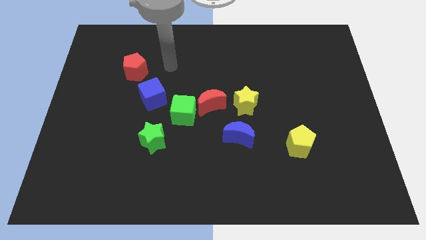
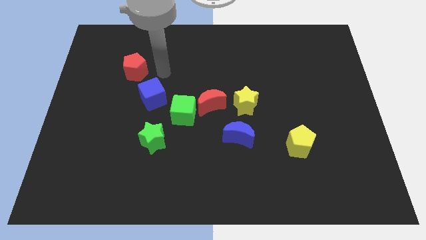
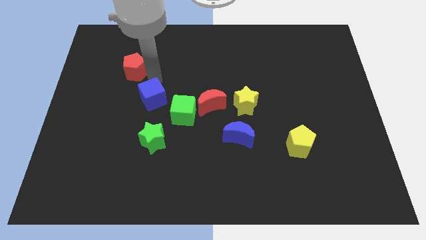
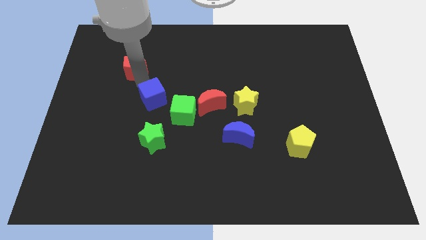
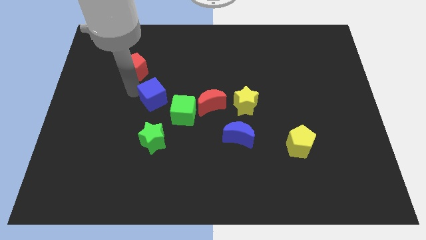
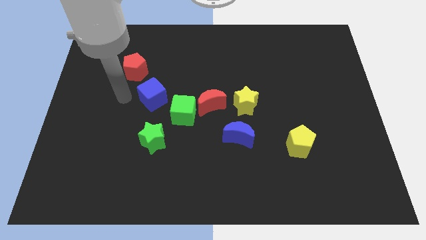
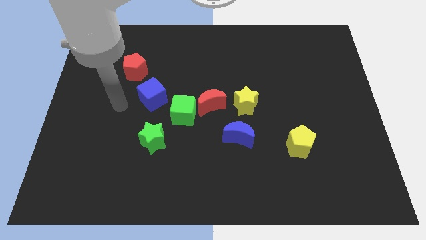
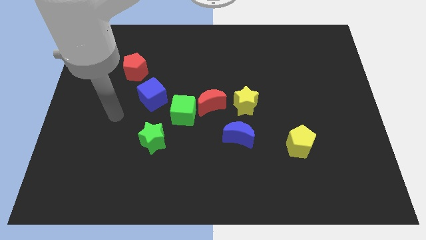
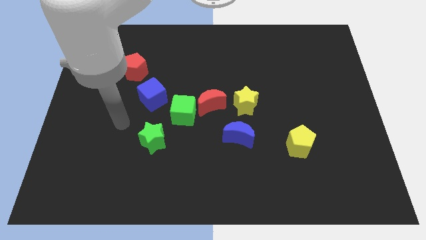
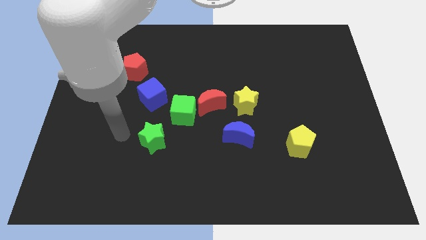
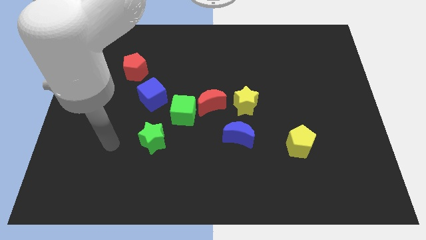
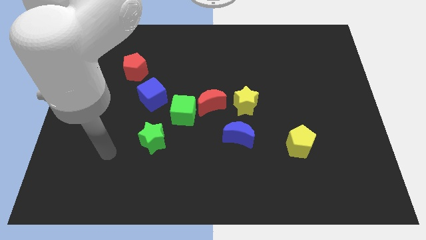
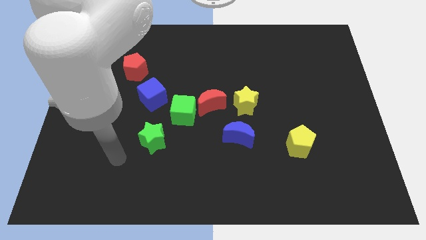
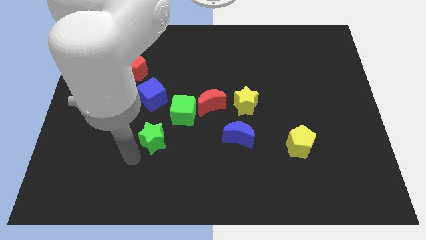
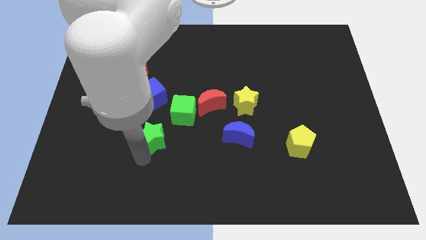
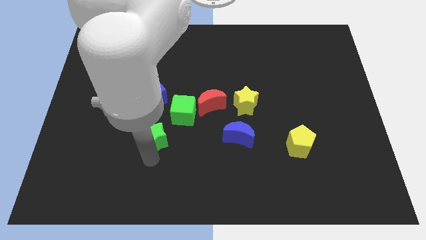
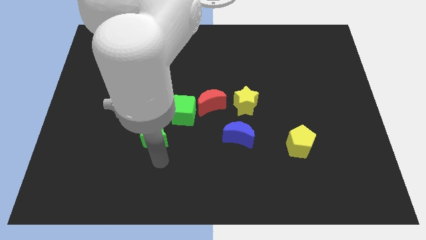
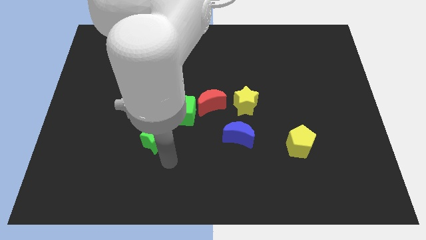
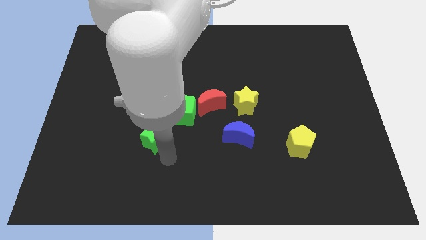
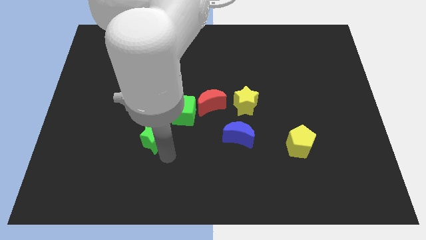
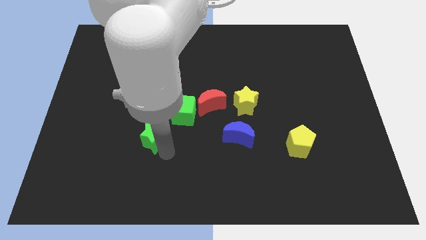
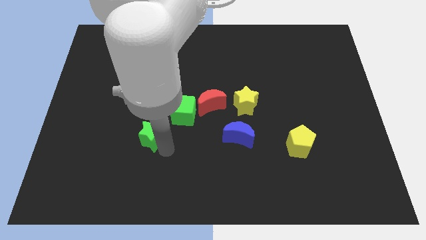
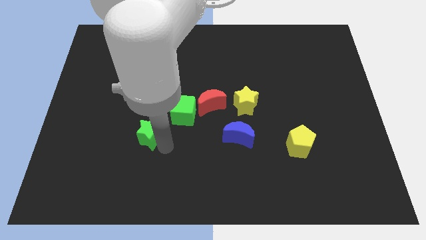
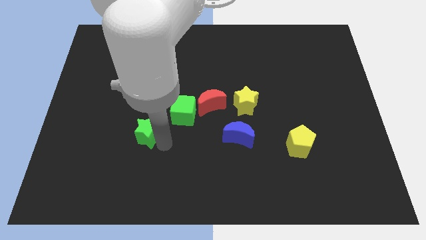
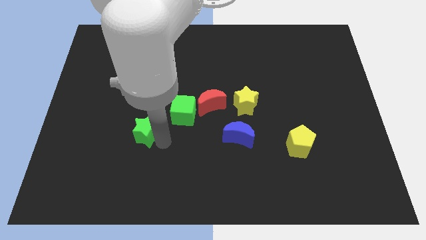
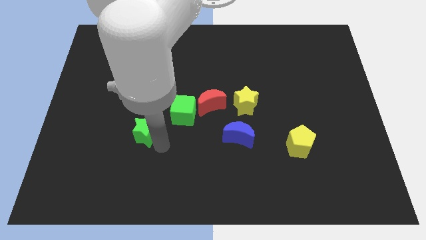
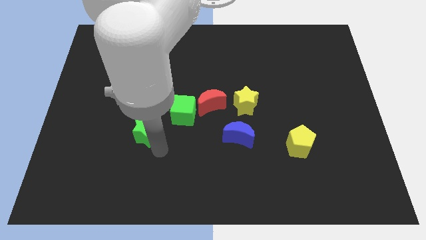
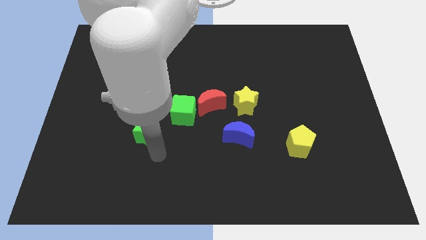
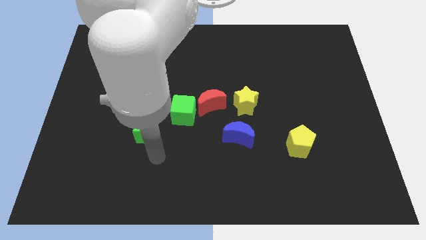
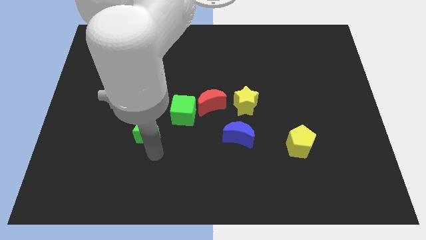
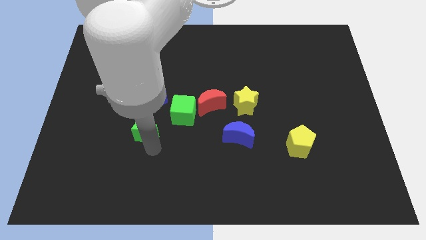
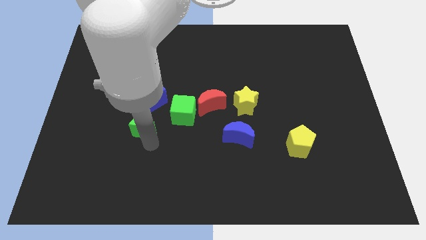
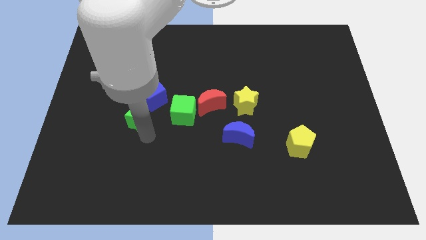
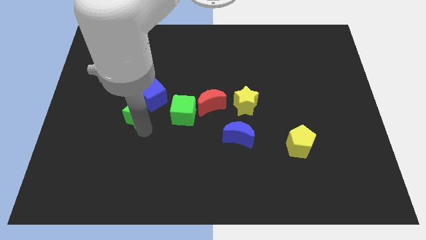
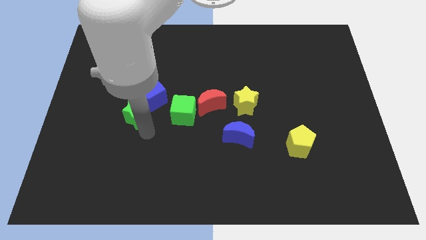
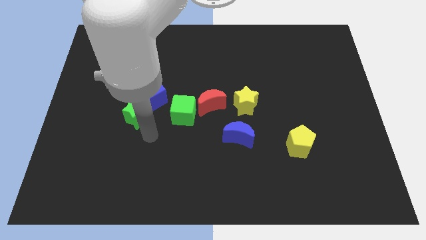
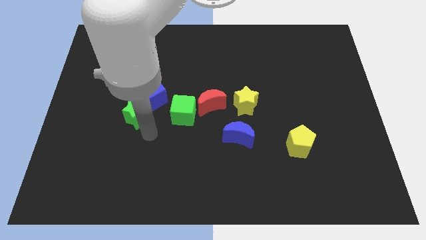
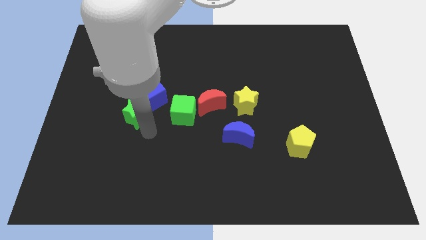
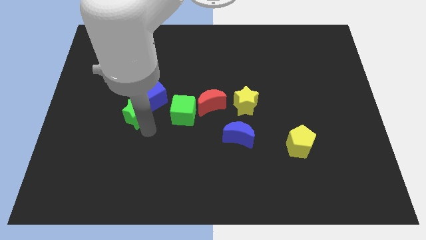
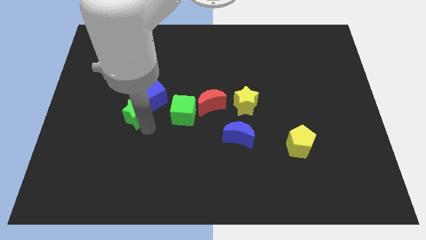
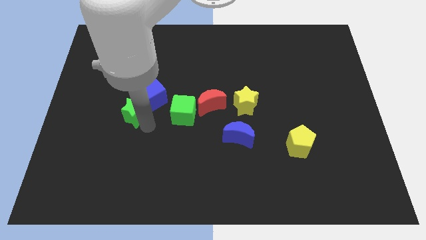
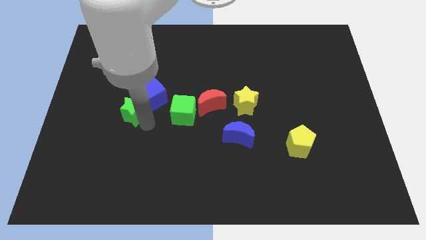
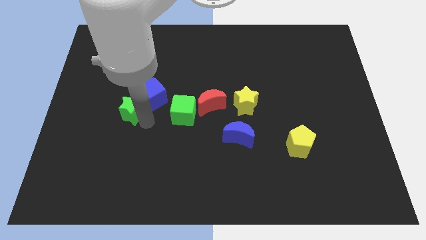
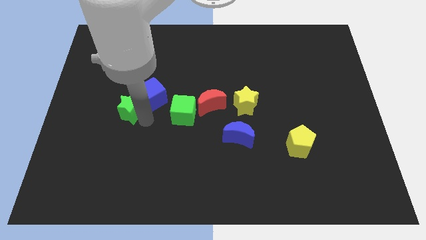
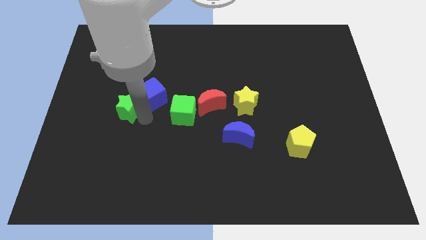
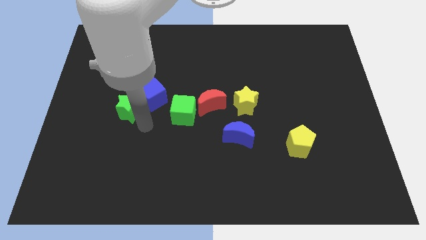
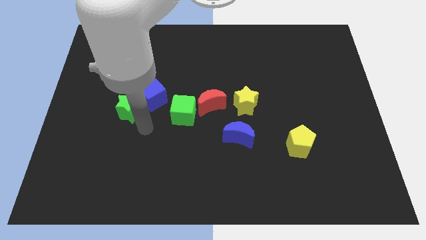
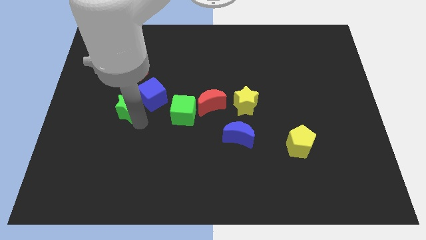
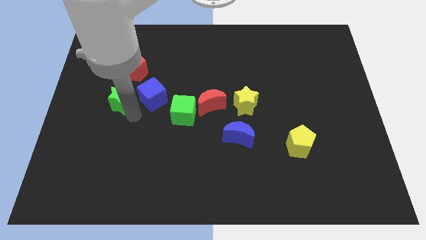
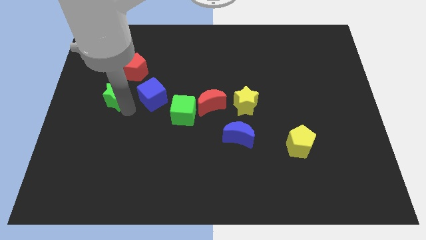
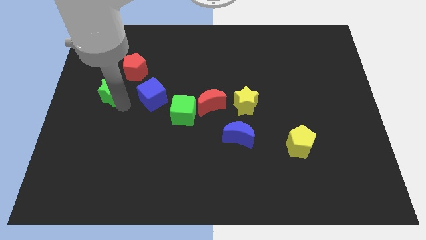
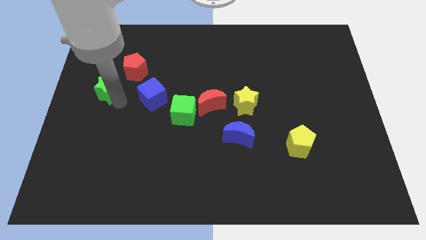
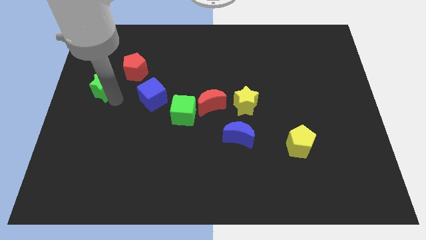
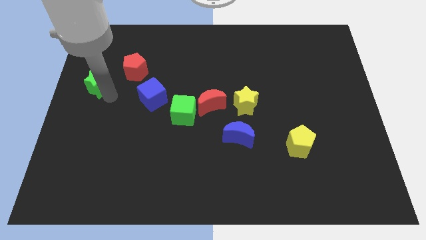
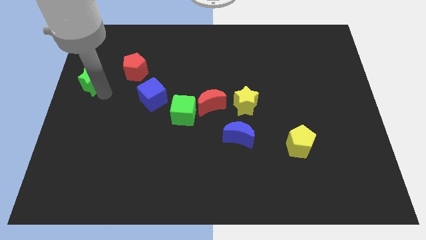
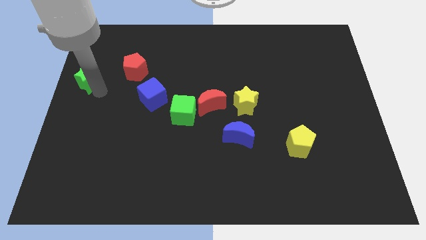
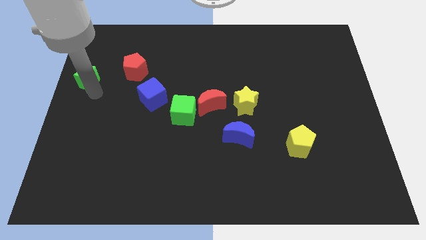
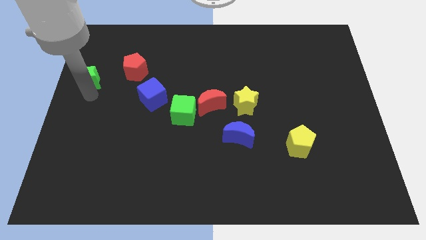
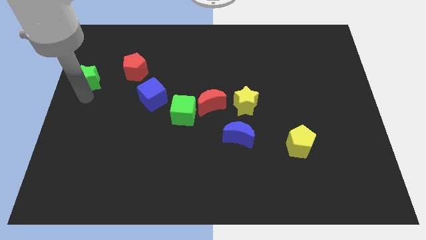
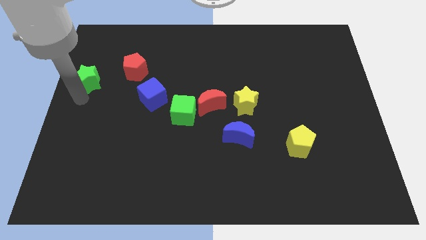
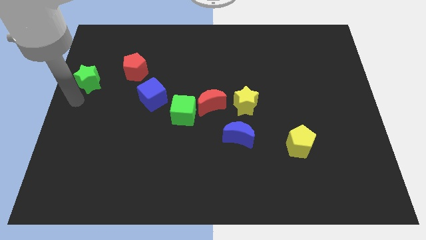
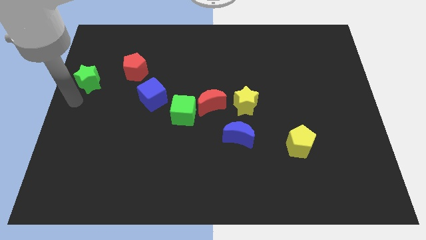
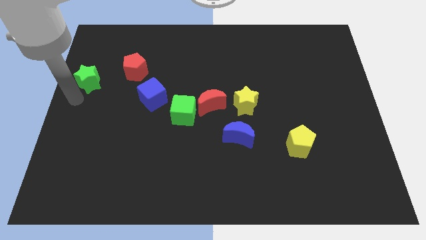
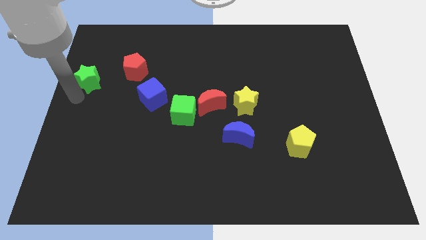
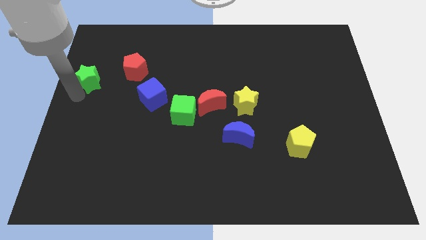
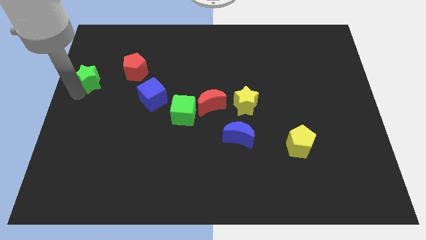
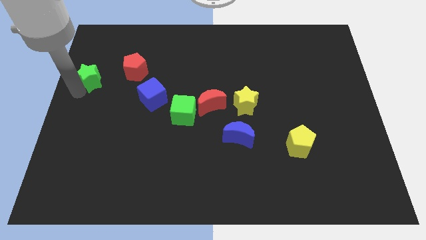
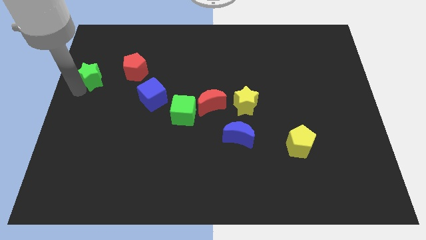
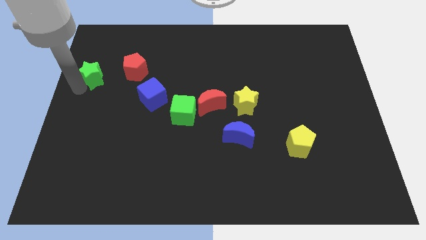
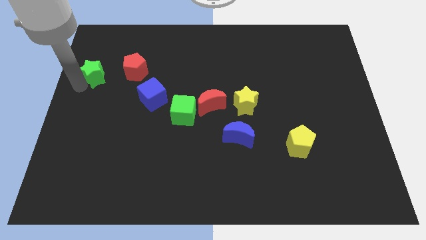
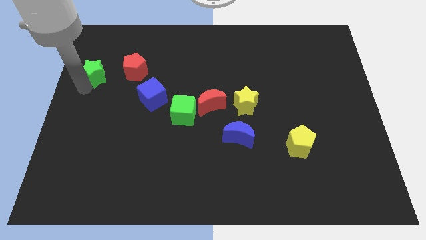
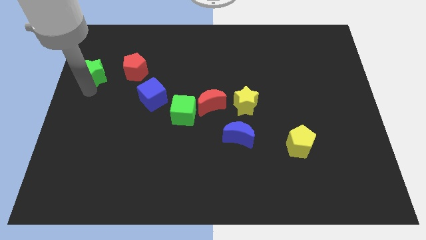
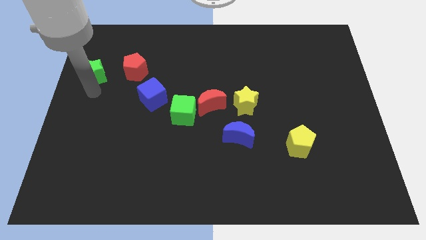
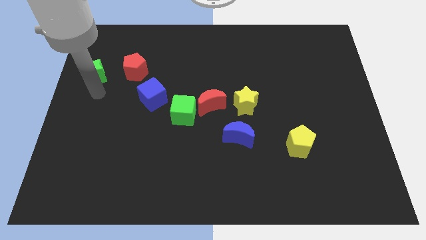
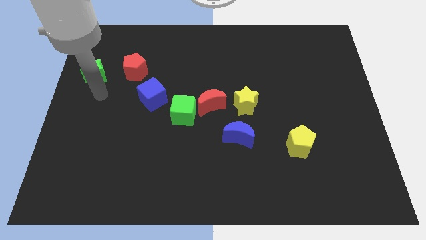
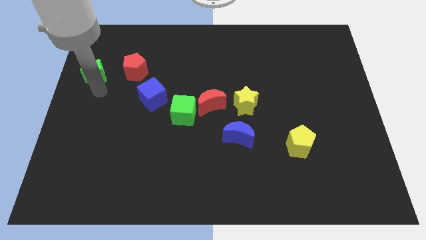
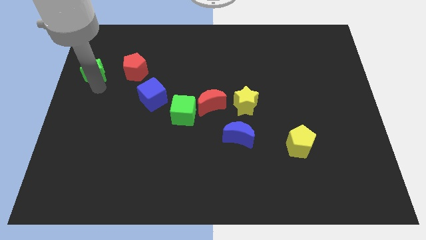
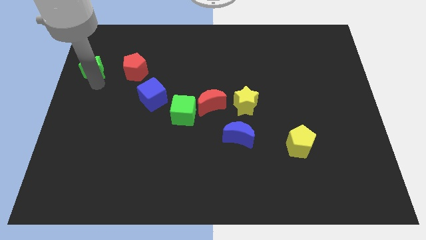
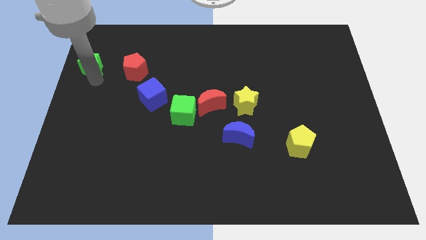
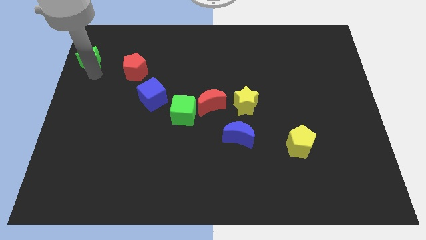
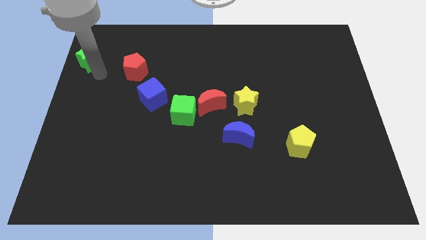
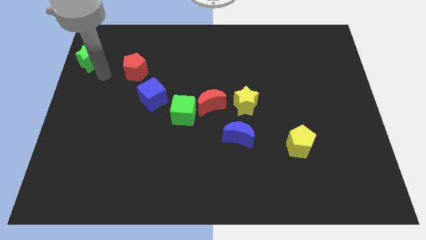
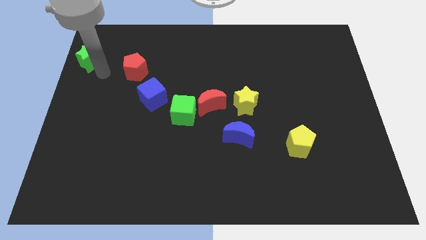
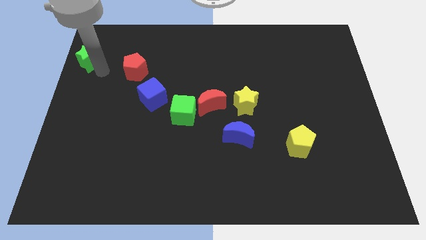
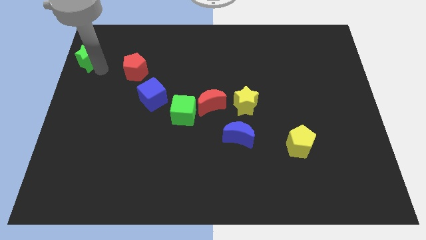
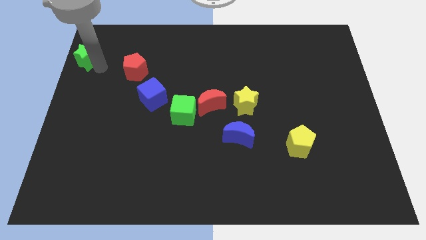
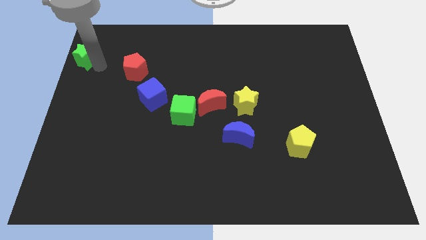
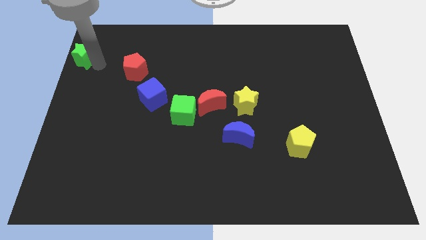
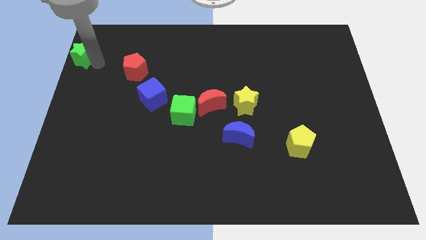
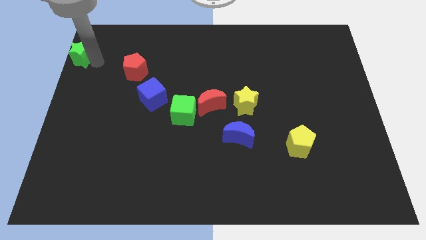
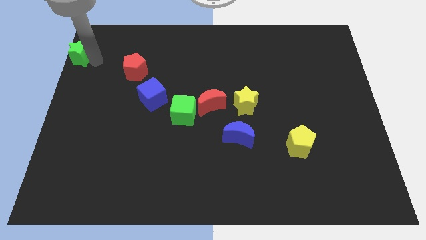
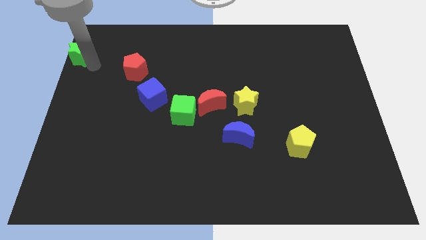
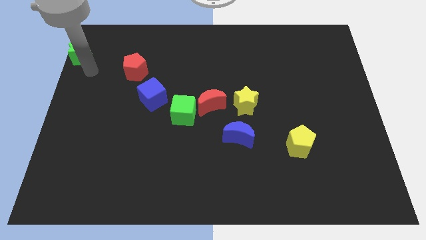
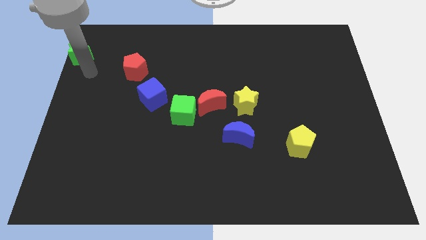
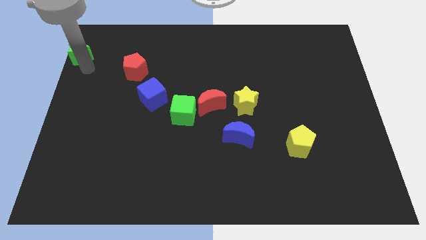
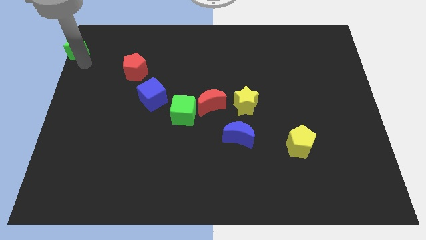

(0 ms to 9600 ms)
slide the green star to the top left corner
